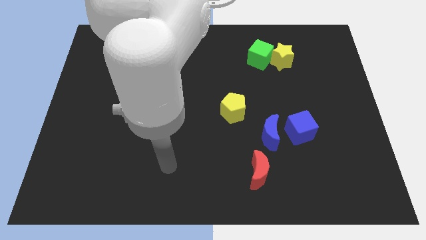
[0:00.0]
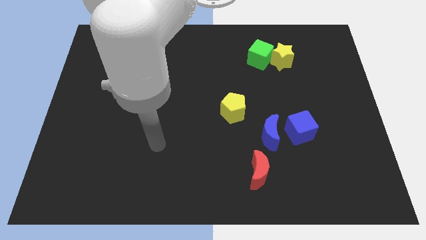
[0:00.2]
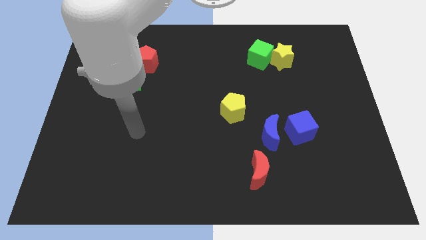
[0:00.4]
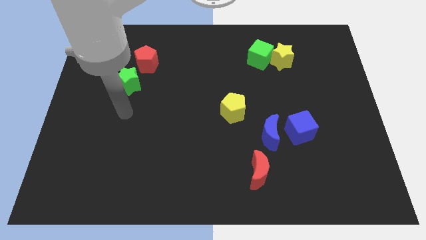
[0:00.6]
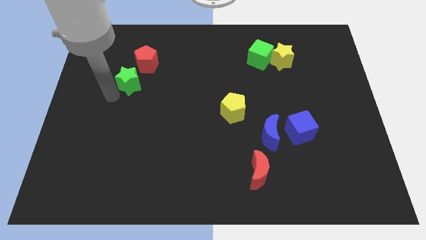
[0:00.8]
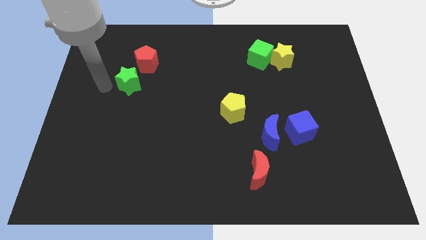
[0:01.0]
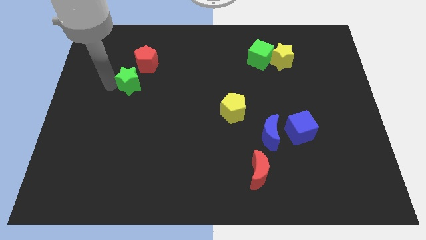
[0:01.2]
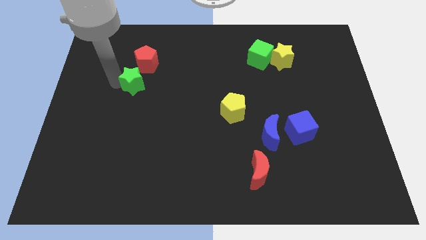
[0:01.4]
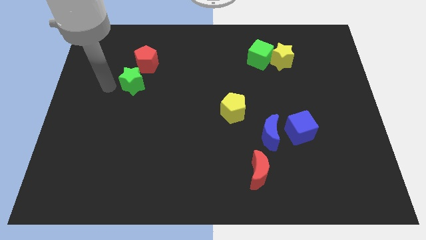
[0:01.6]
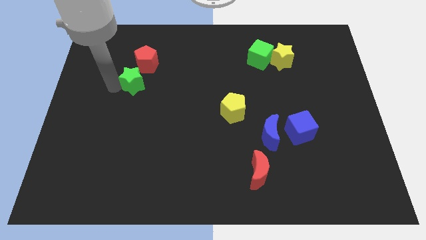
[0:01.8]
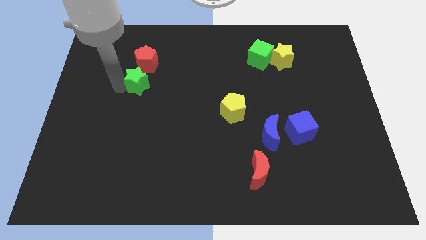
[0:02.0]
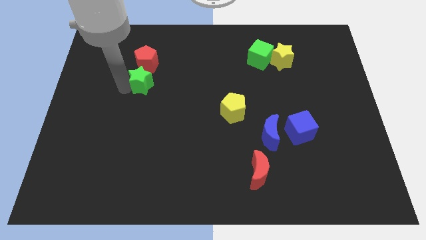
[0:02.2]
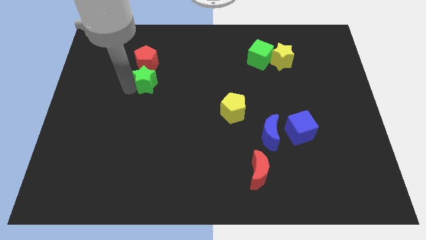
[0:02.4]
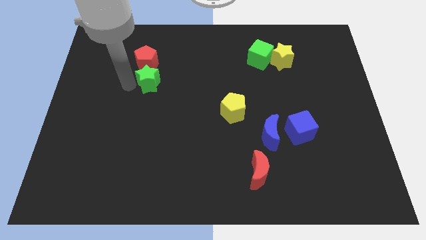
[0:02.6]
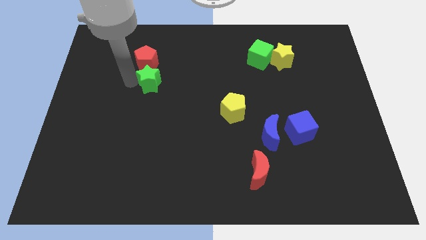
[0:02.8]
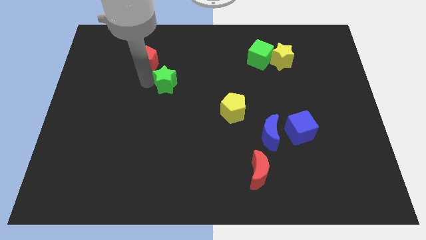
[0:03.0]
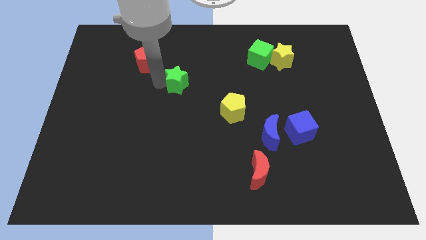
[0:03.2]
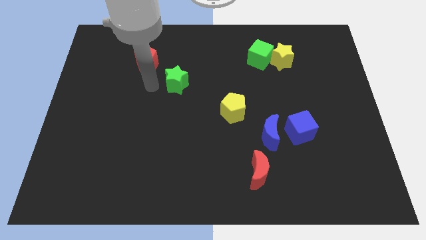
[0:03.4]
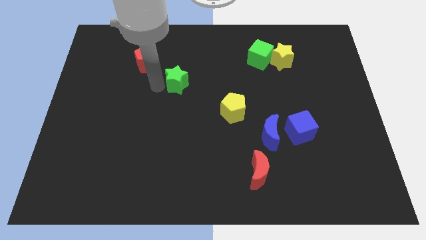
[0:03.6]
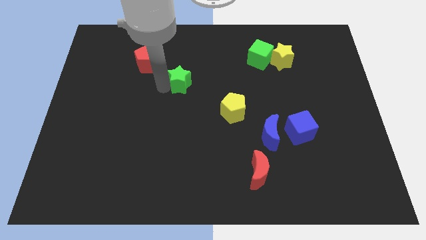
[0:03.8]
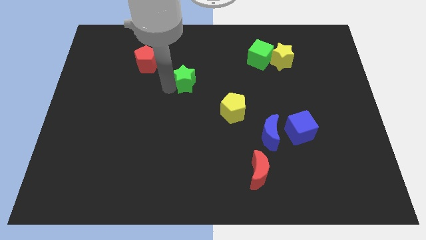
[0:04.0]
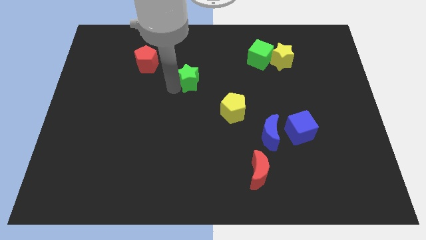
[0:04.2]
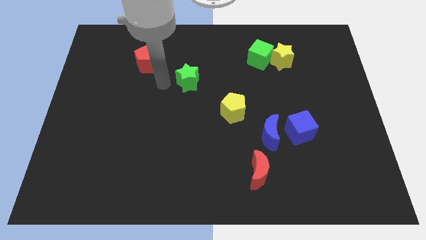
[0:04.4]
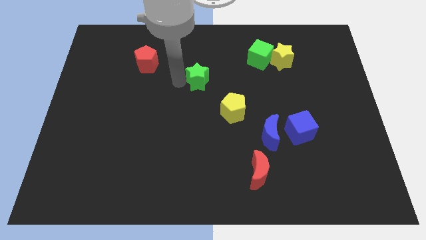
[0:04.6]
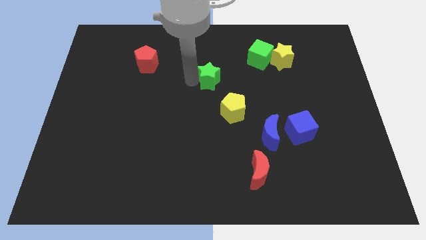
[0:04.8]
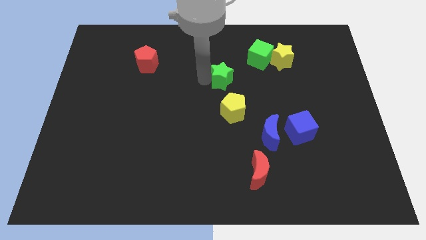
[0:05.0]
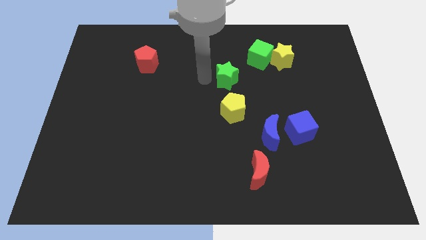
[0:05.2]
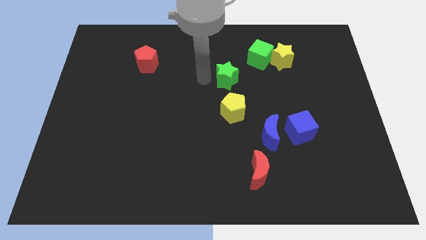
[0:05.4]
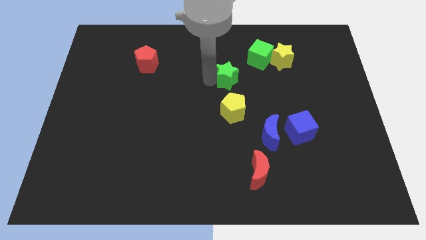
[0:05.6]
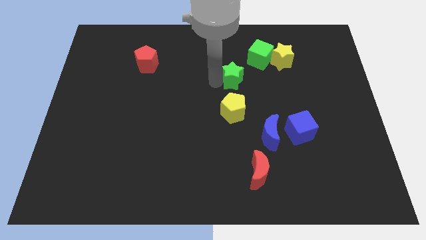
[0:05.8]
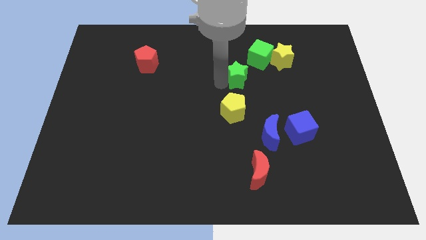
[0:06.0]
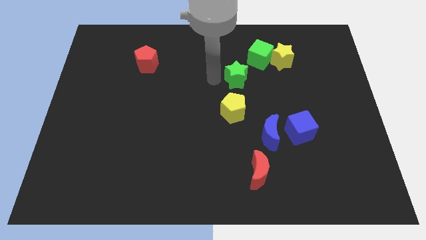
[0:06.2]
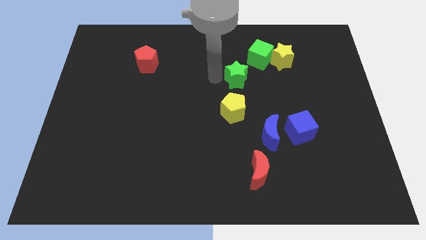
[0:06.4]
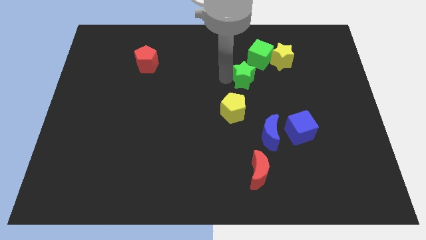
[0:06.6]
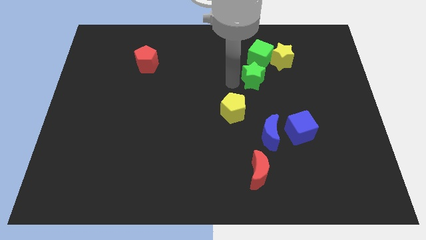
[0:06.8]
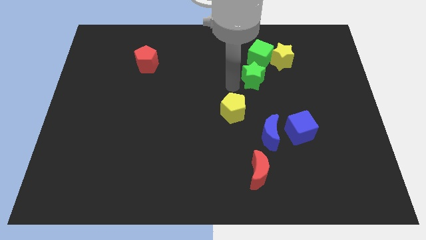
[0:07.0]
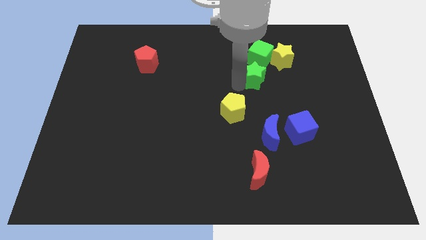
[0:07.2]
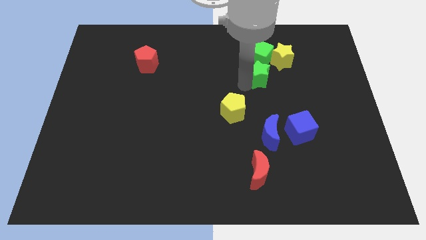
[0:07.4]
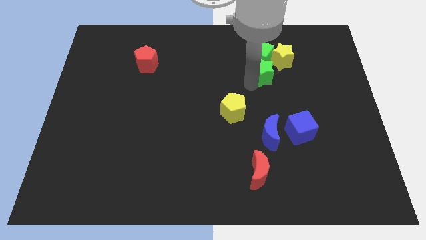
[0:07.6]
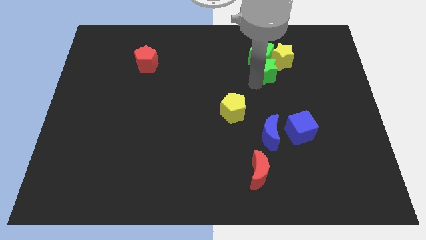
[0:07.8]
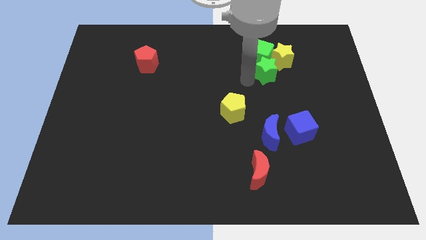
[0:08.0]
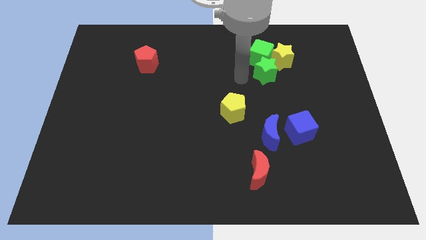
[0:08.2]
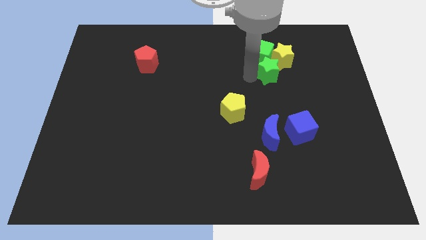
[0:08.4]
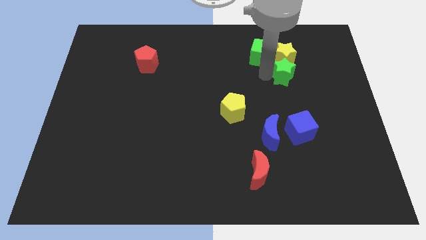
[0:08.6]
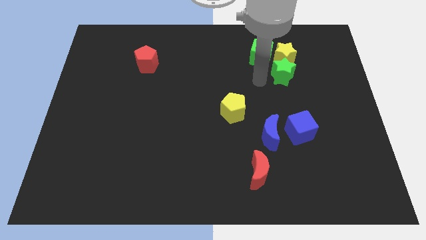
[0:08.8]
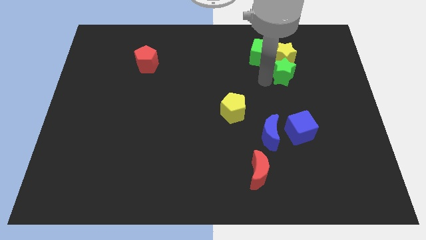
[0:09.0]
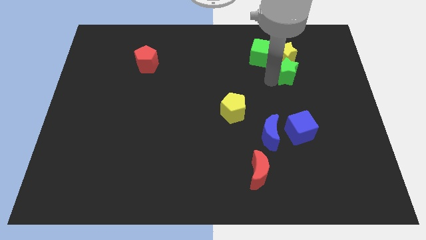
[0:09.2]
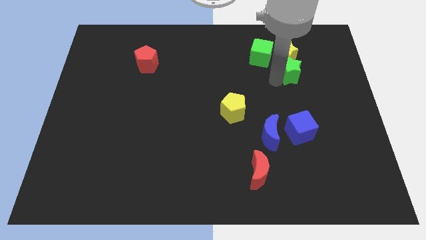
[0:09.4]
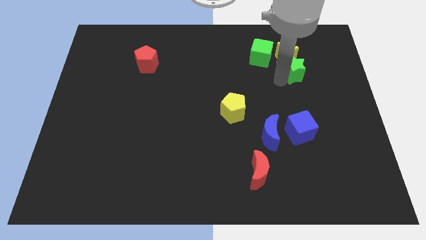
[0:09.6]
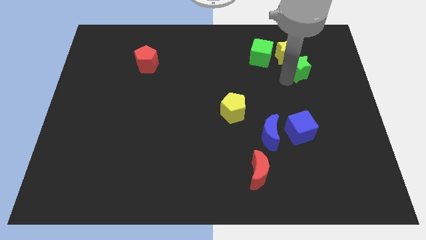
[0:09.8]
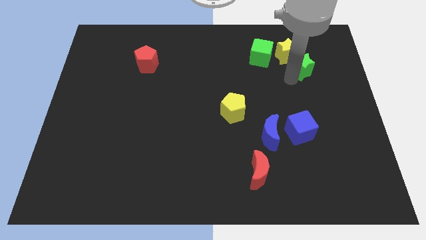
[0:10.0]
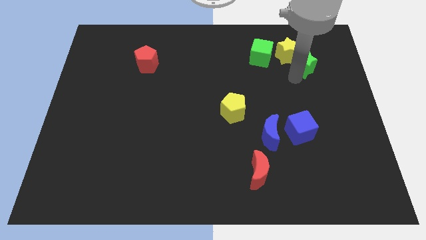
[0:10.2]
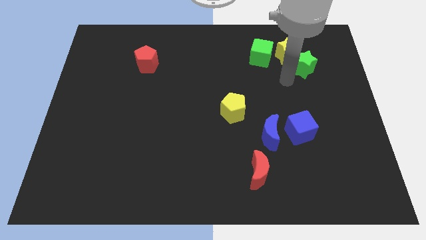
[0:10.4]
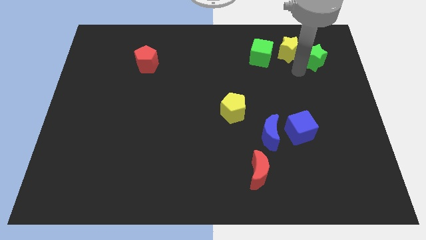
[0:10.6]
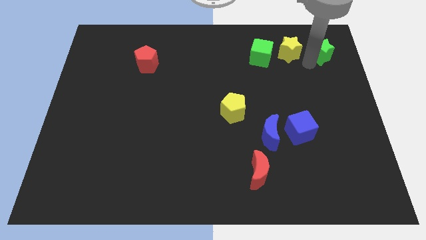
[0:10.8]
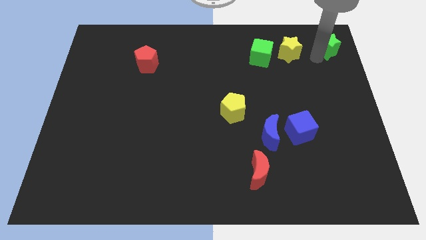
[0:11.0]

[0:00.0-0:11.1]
move the green star to the upper right corner
